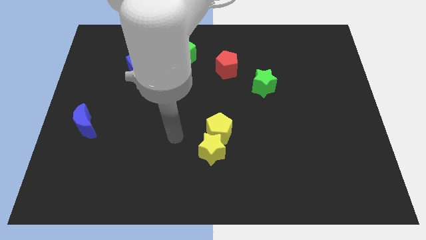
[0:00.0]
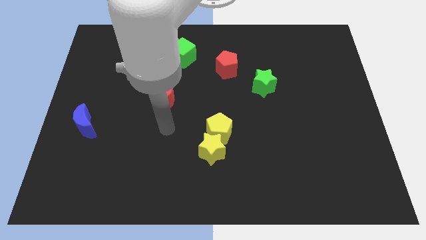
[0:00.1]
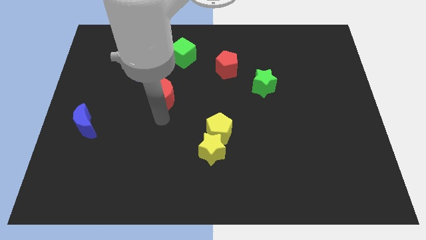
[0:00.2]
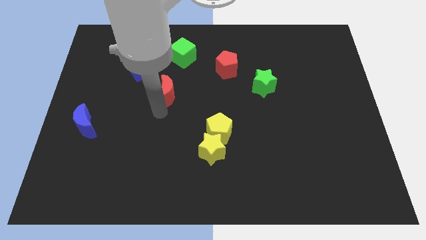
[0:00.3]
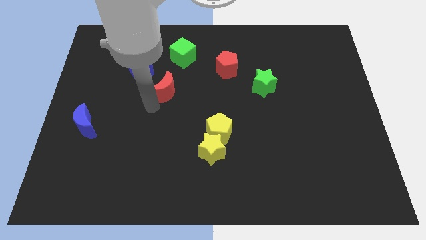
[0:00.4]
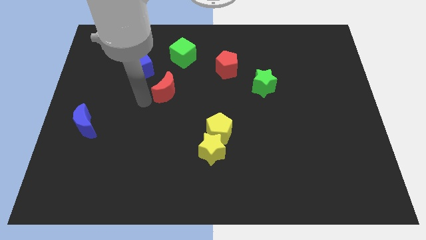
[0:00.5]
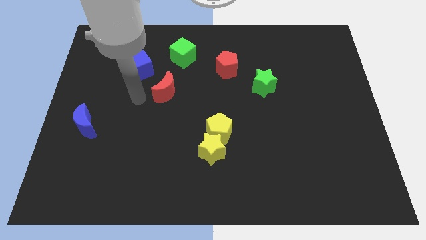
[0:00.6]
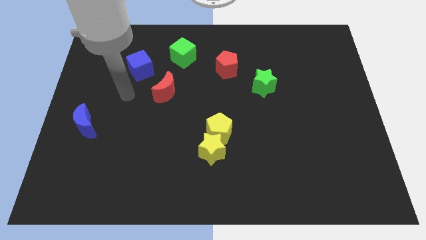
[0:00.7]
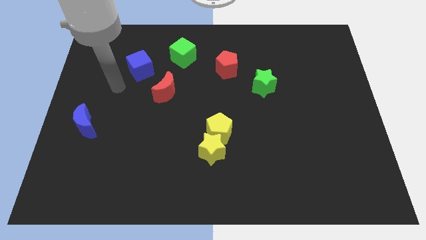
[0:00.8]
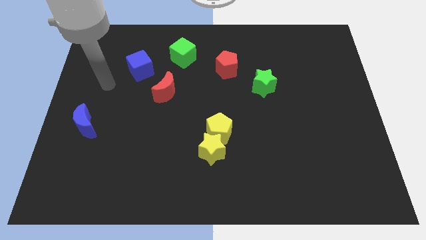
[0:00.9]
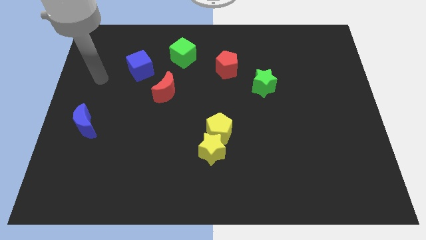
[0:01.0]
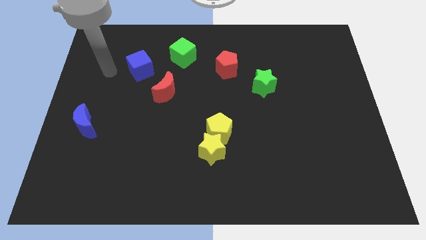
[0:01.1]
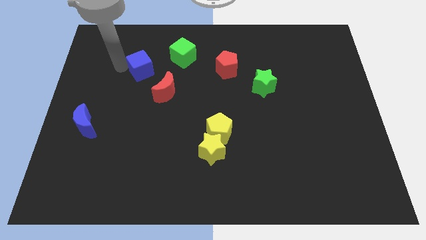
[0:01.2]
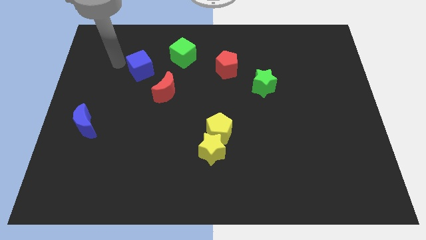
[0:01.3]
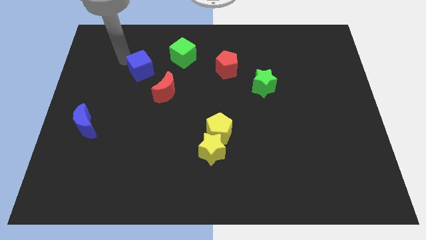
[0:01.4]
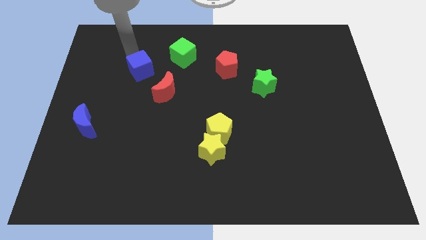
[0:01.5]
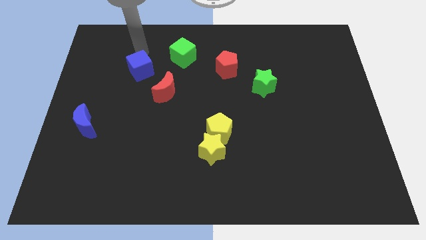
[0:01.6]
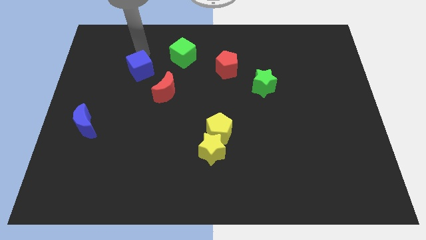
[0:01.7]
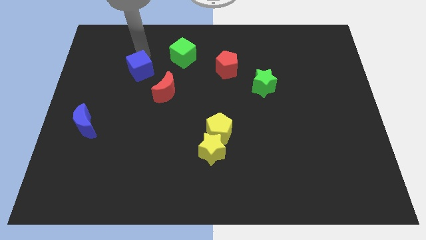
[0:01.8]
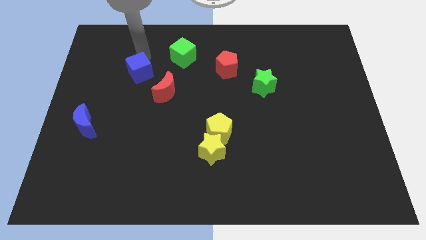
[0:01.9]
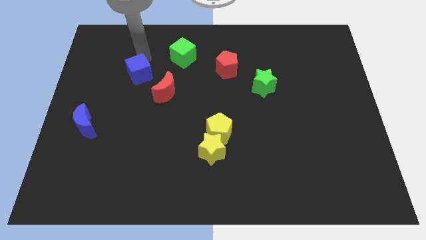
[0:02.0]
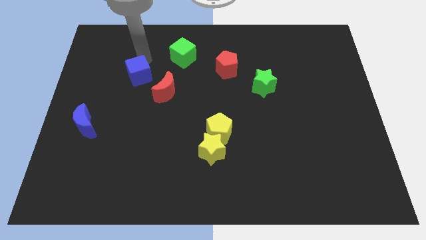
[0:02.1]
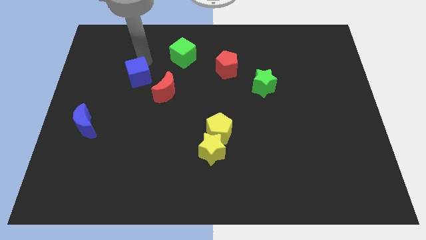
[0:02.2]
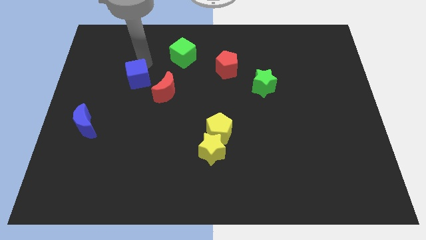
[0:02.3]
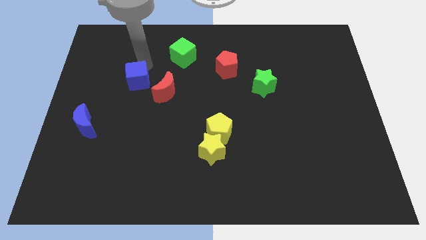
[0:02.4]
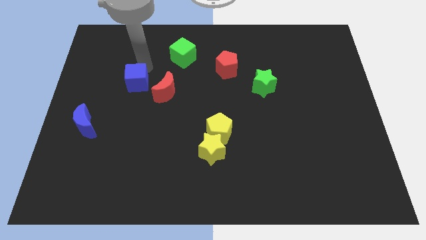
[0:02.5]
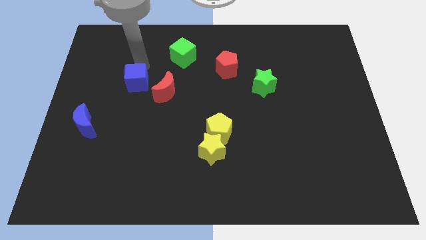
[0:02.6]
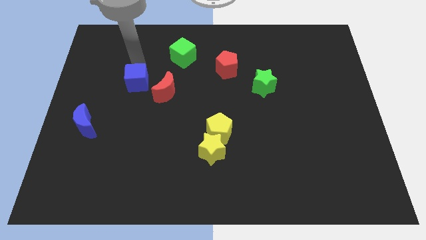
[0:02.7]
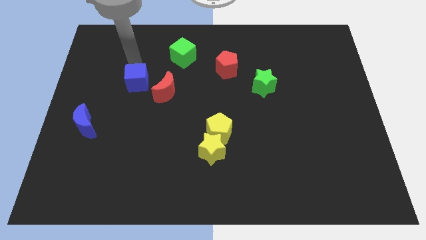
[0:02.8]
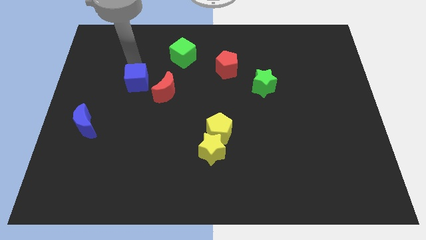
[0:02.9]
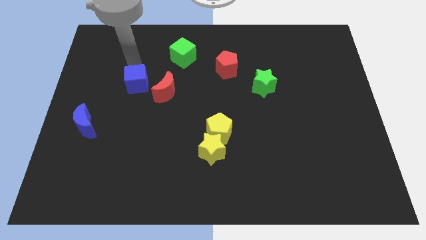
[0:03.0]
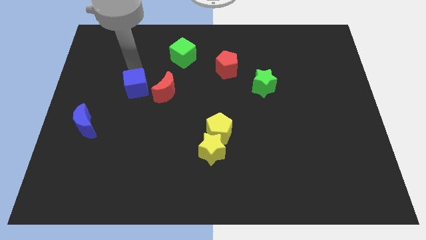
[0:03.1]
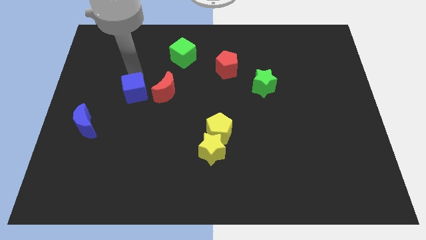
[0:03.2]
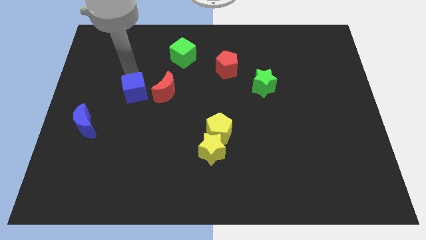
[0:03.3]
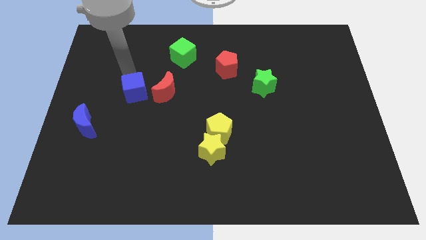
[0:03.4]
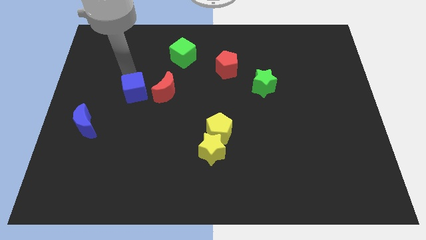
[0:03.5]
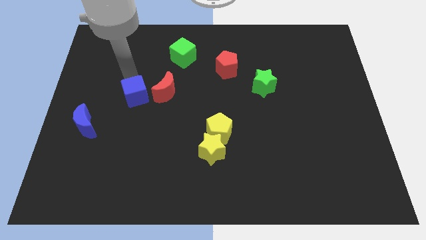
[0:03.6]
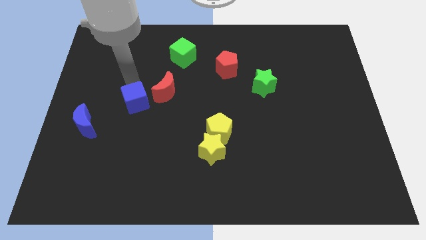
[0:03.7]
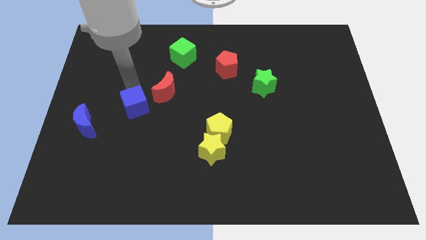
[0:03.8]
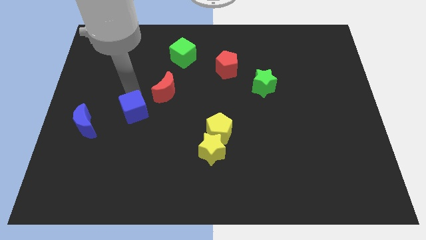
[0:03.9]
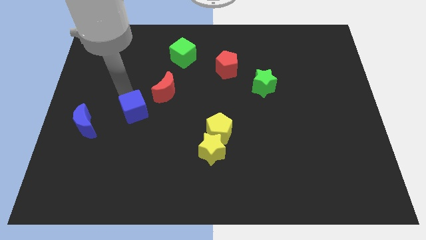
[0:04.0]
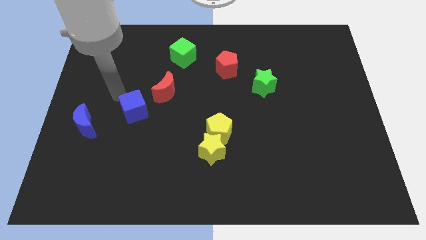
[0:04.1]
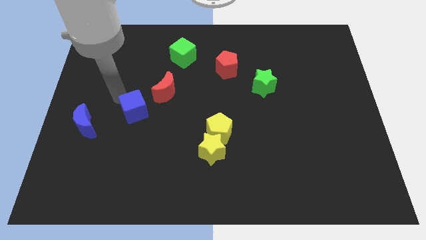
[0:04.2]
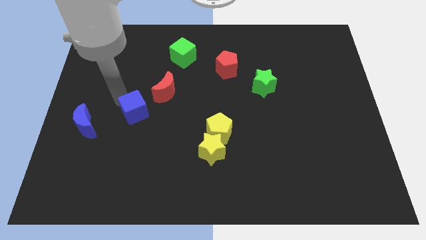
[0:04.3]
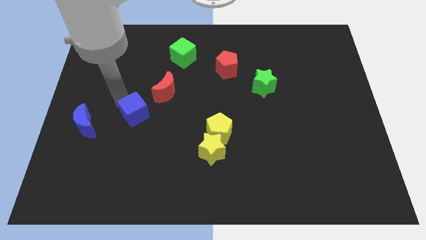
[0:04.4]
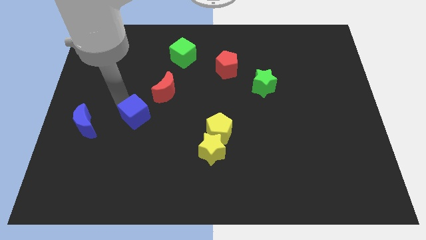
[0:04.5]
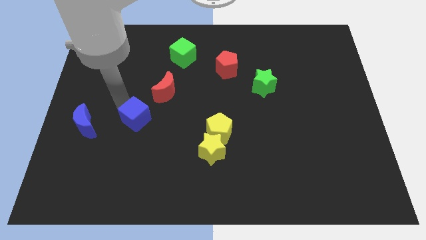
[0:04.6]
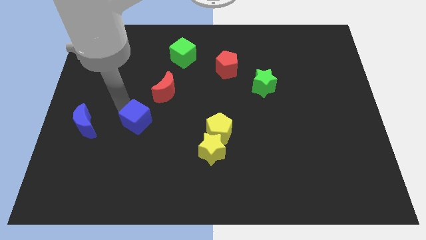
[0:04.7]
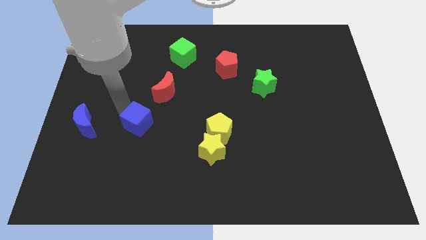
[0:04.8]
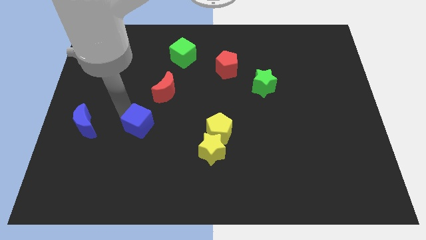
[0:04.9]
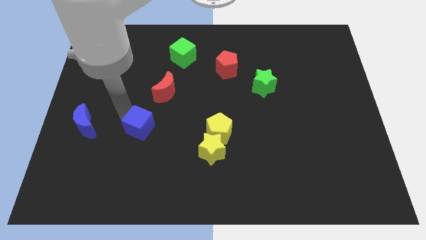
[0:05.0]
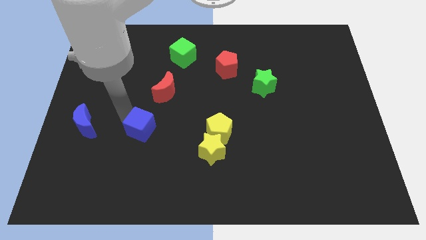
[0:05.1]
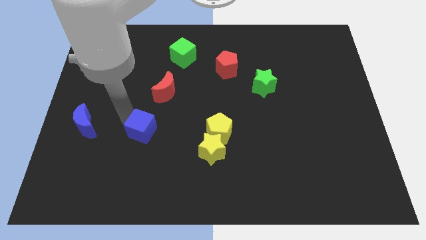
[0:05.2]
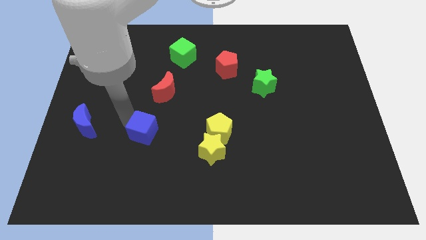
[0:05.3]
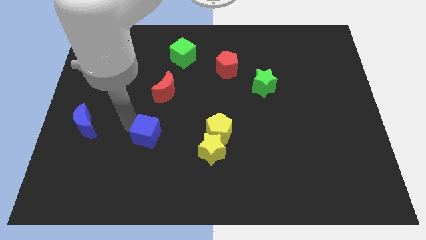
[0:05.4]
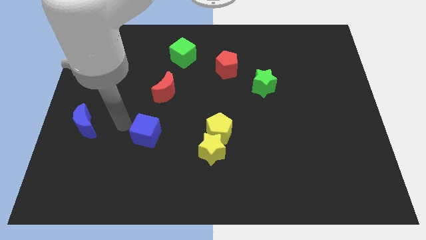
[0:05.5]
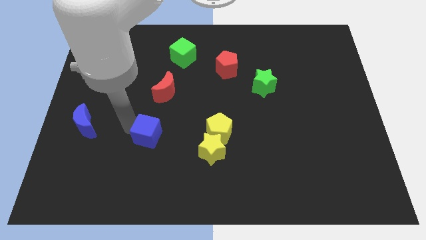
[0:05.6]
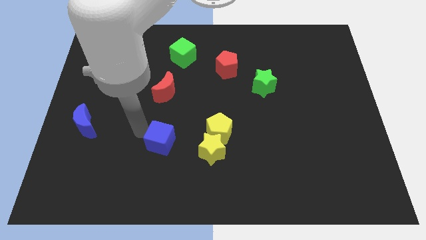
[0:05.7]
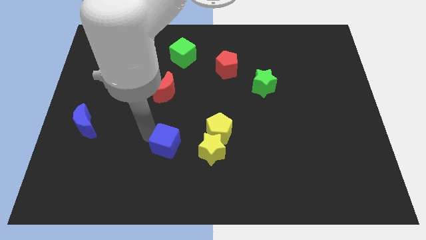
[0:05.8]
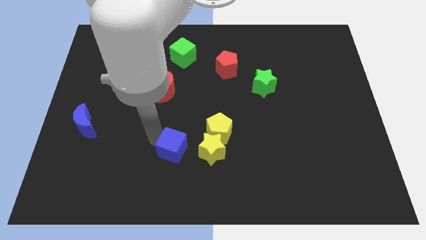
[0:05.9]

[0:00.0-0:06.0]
push the blue cube diagonally down and to the left of the yellow pentagon

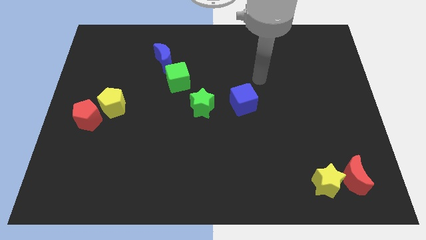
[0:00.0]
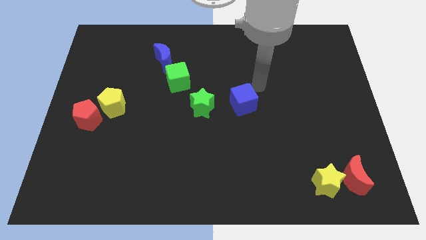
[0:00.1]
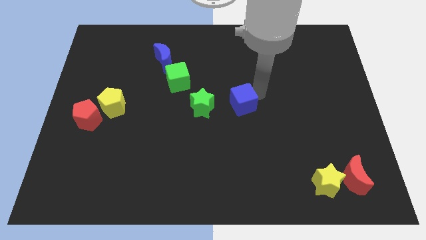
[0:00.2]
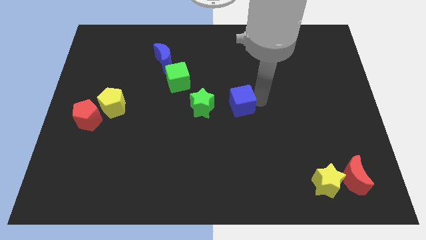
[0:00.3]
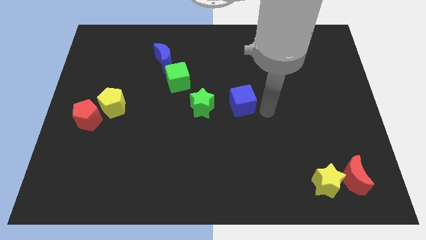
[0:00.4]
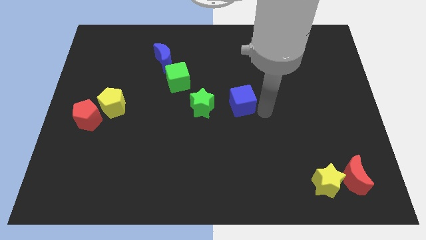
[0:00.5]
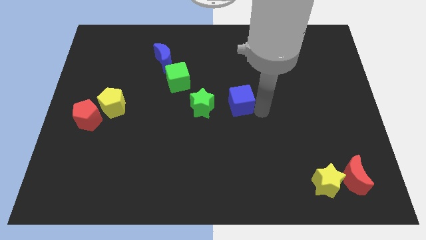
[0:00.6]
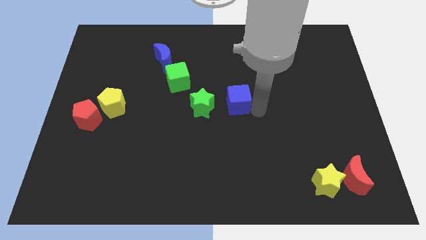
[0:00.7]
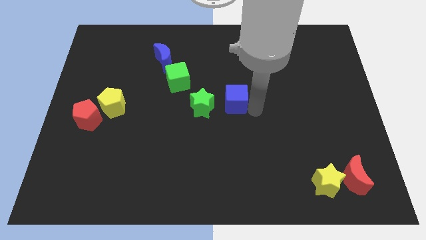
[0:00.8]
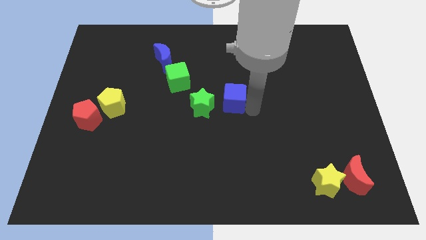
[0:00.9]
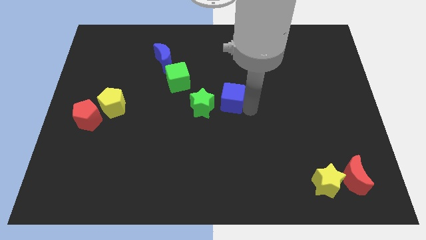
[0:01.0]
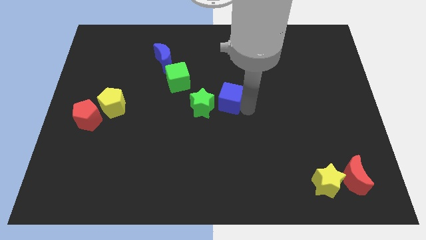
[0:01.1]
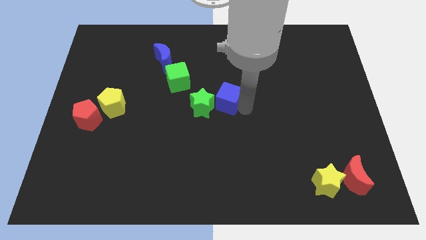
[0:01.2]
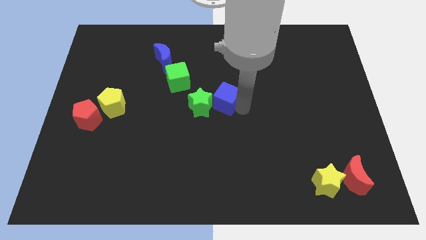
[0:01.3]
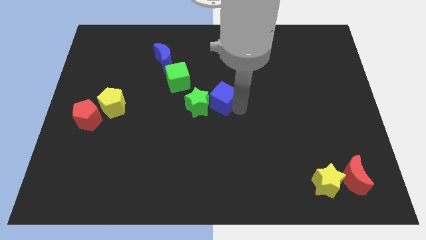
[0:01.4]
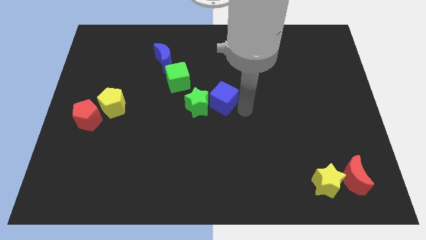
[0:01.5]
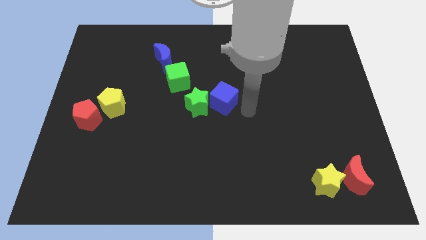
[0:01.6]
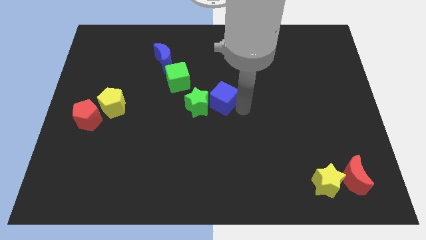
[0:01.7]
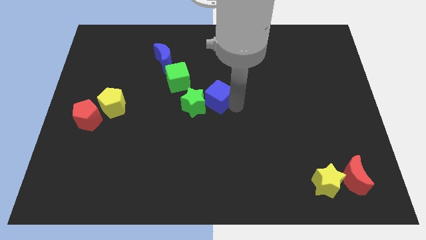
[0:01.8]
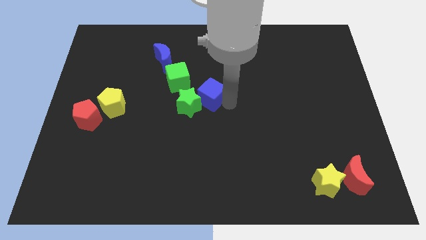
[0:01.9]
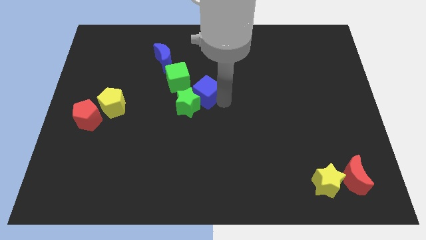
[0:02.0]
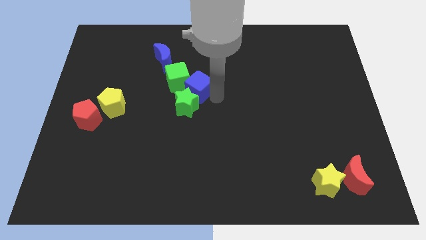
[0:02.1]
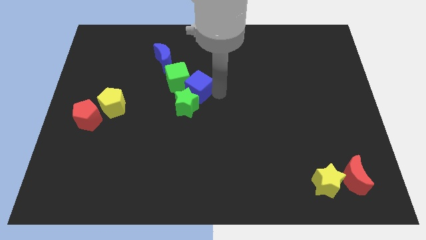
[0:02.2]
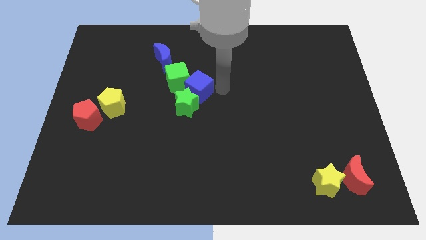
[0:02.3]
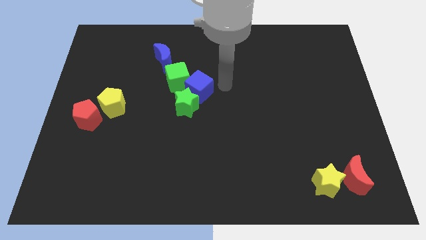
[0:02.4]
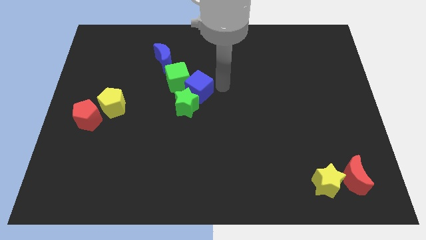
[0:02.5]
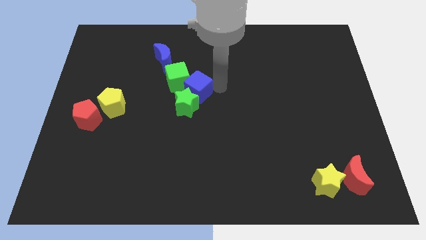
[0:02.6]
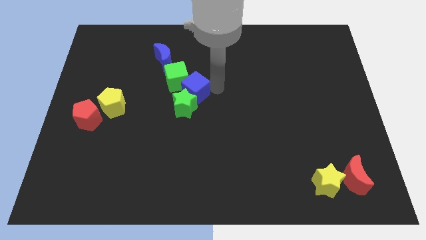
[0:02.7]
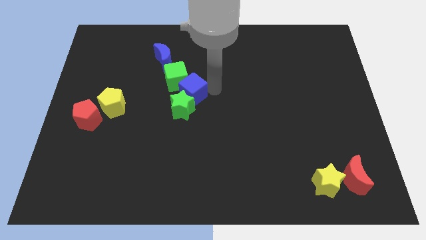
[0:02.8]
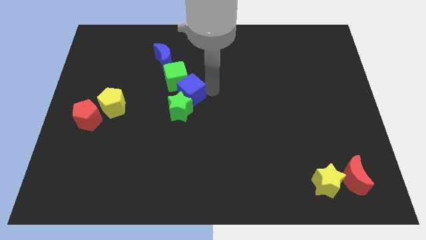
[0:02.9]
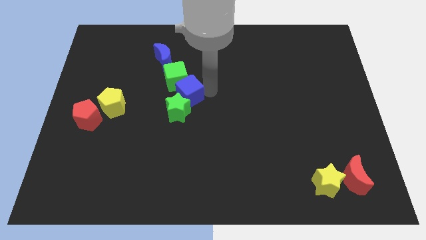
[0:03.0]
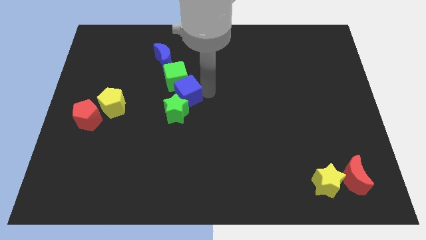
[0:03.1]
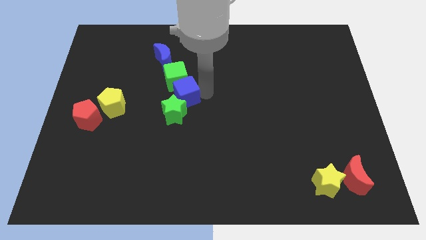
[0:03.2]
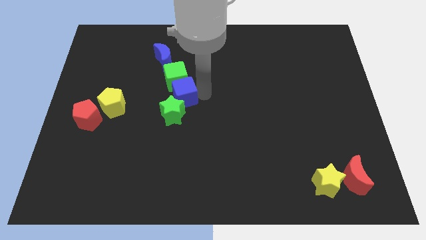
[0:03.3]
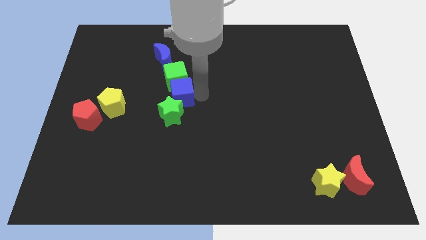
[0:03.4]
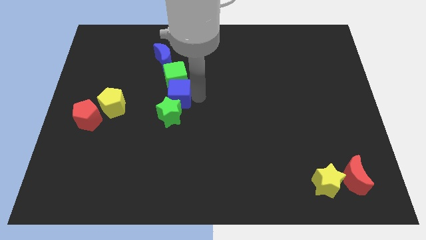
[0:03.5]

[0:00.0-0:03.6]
put the blue cube diagonally down and to the left of the green cube
